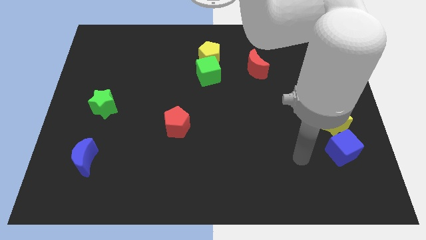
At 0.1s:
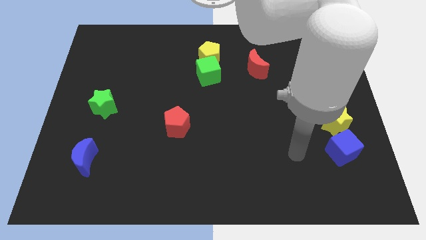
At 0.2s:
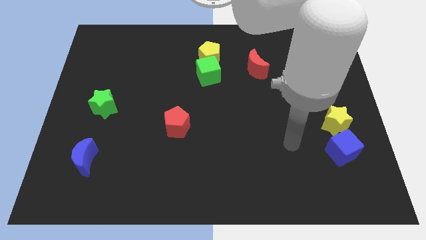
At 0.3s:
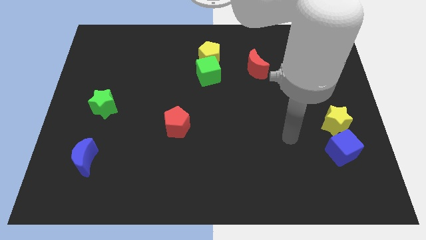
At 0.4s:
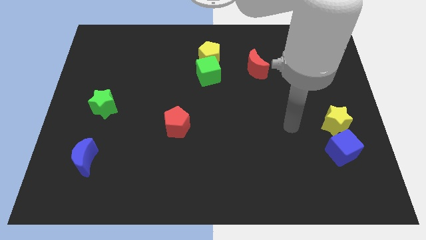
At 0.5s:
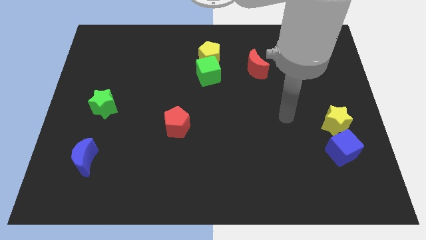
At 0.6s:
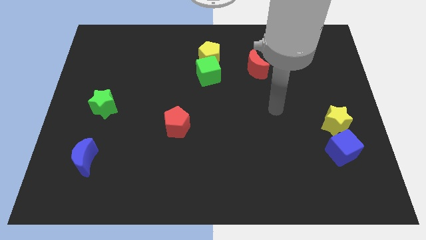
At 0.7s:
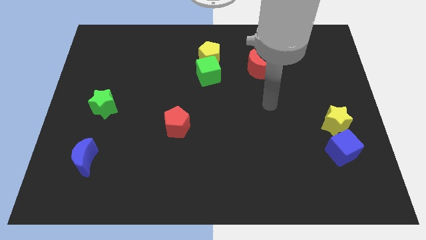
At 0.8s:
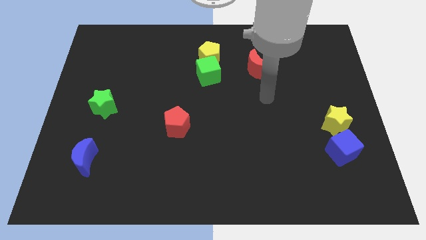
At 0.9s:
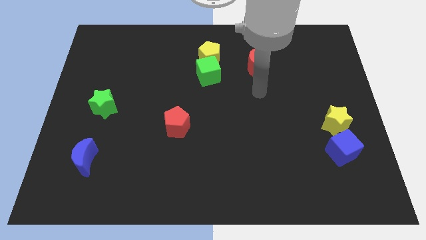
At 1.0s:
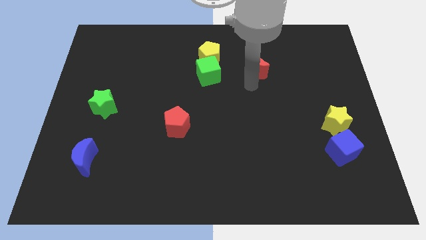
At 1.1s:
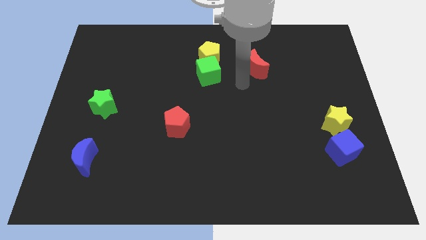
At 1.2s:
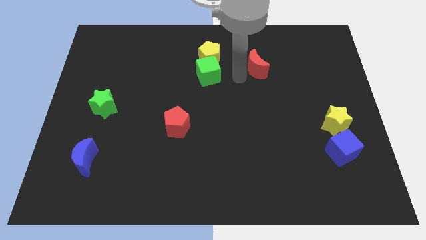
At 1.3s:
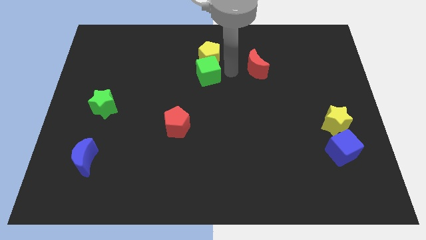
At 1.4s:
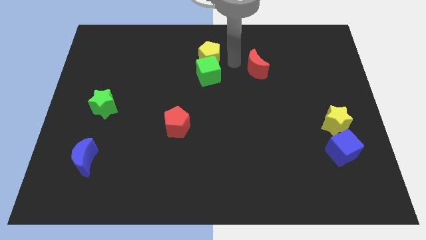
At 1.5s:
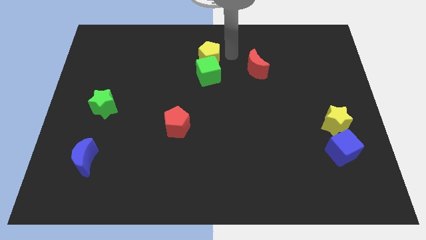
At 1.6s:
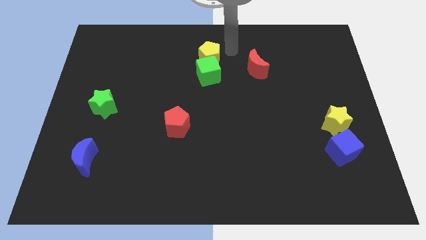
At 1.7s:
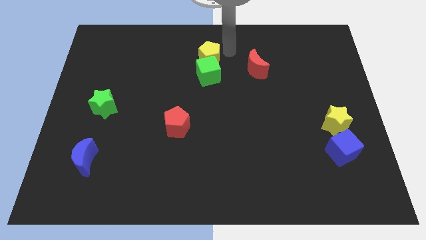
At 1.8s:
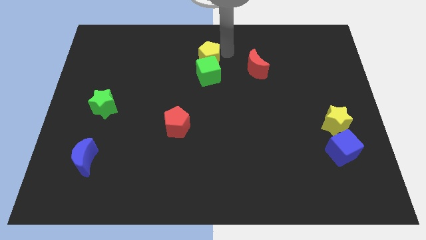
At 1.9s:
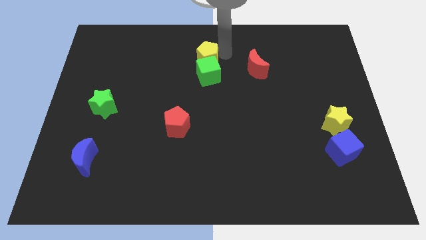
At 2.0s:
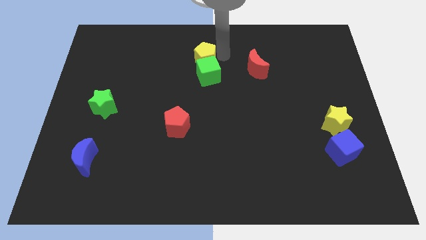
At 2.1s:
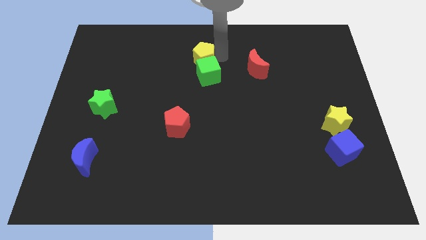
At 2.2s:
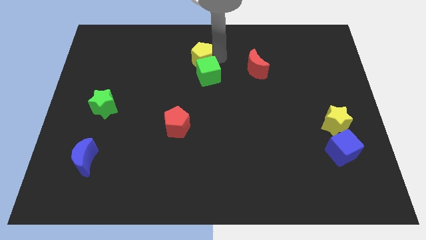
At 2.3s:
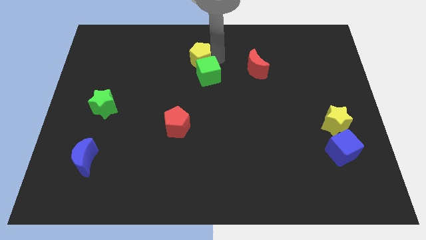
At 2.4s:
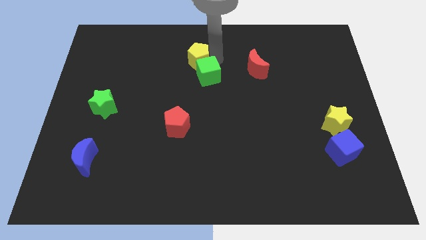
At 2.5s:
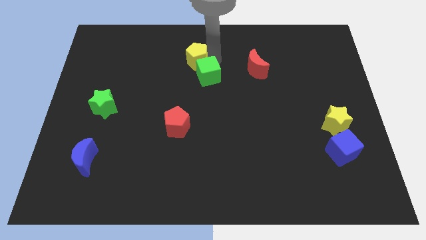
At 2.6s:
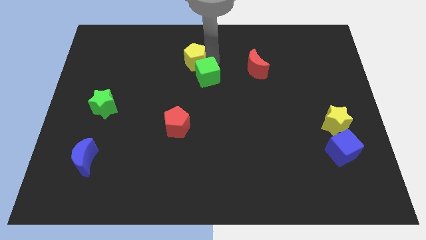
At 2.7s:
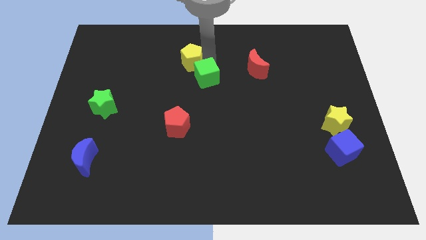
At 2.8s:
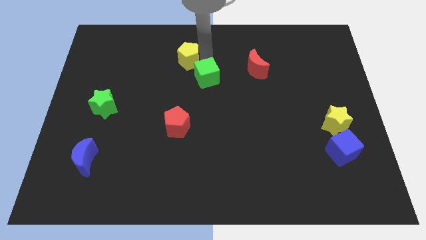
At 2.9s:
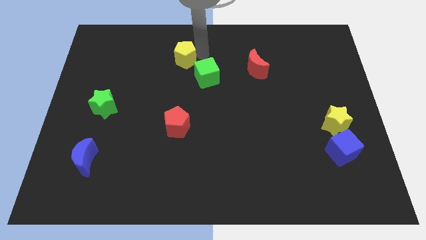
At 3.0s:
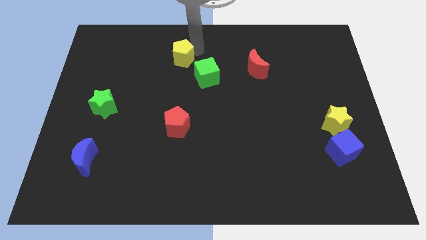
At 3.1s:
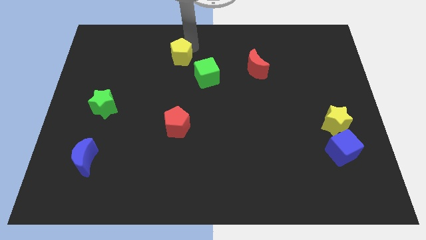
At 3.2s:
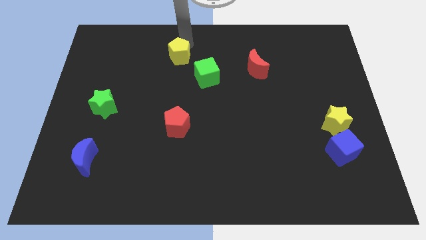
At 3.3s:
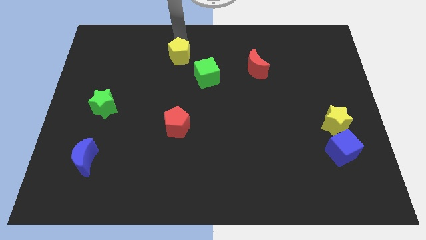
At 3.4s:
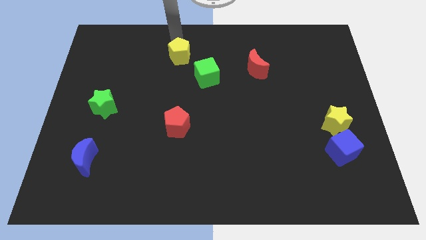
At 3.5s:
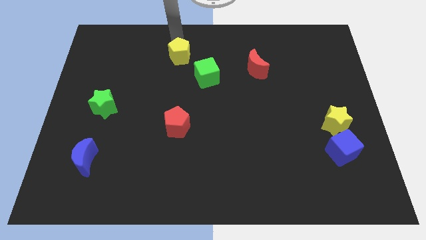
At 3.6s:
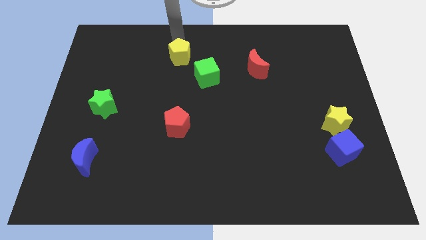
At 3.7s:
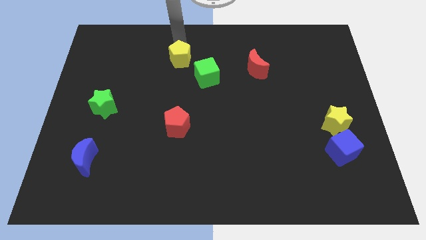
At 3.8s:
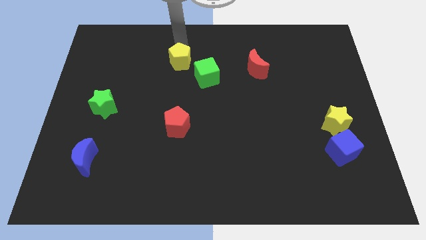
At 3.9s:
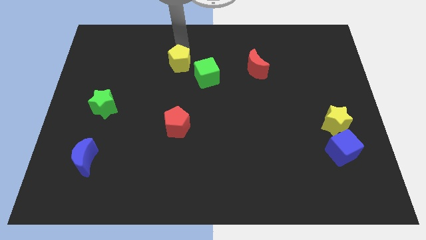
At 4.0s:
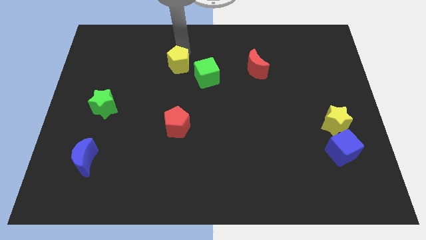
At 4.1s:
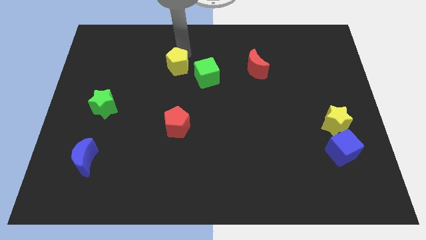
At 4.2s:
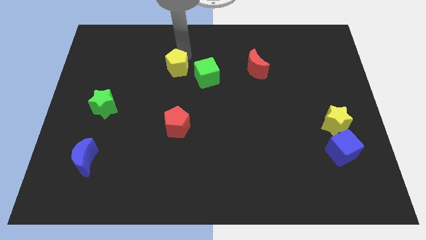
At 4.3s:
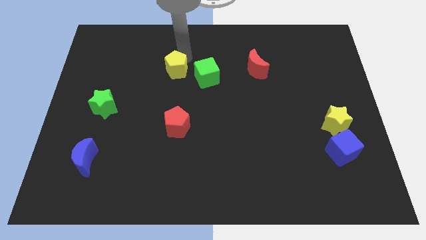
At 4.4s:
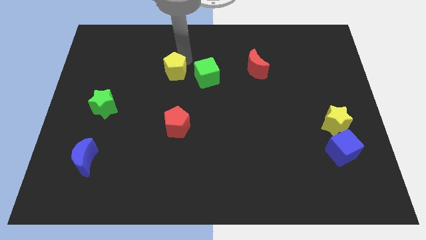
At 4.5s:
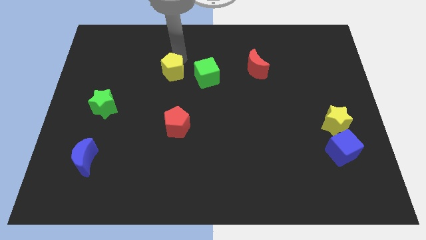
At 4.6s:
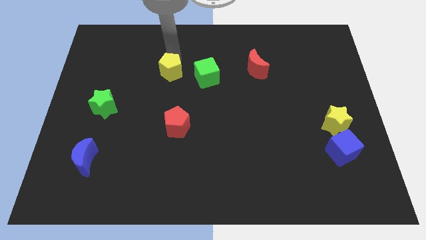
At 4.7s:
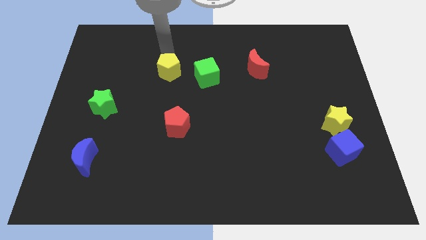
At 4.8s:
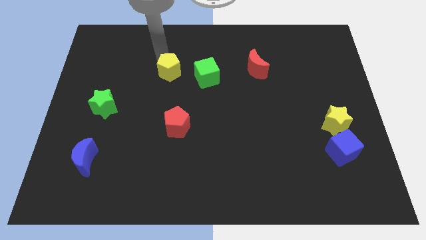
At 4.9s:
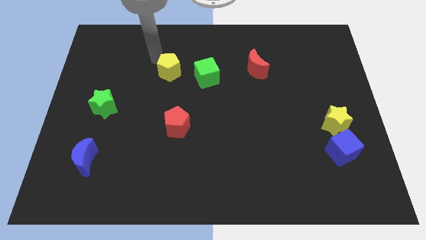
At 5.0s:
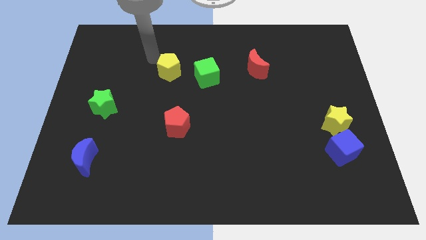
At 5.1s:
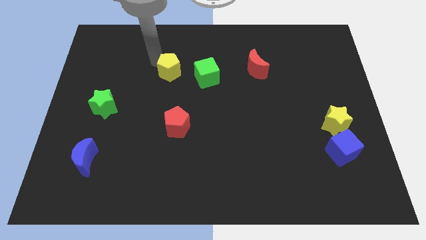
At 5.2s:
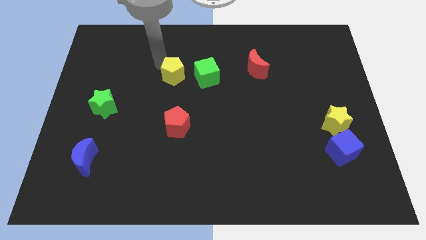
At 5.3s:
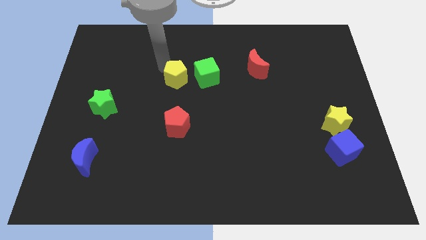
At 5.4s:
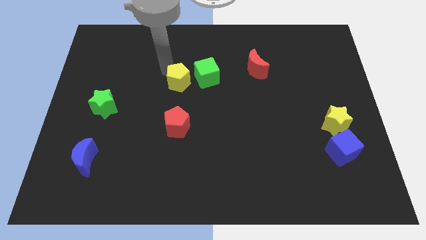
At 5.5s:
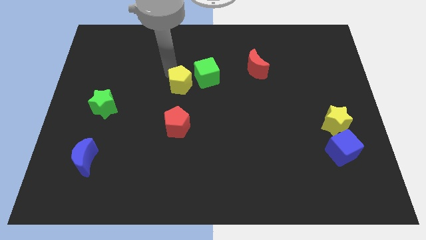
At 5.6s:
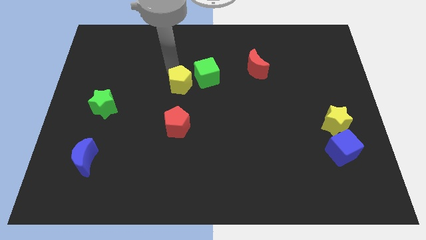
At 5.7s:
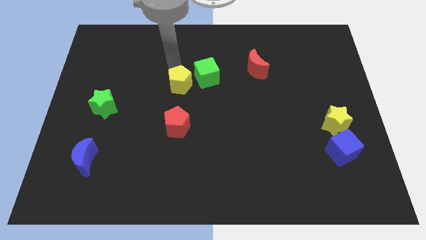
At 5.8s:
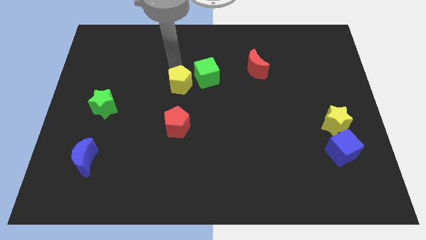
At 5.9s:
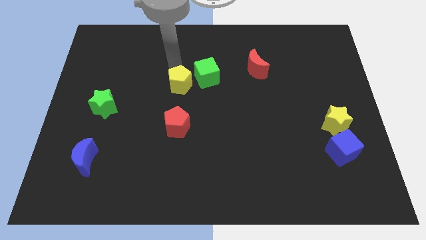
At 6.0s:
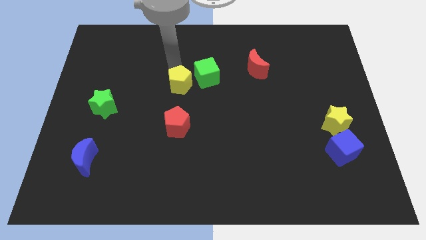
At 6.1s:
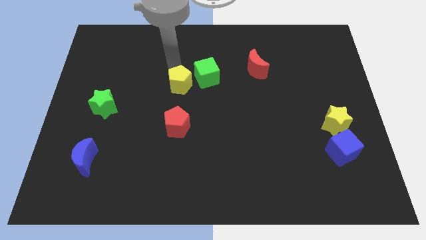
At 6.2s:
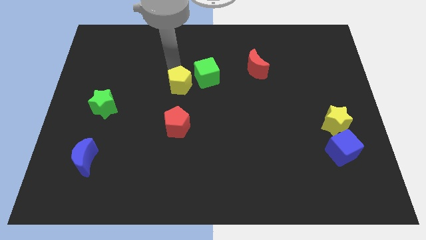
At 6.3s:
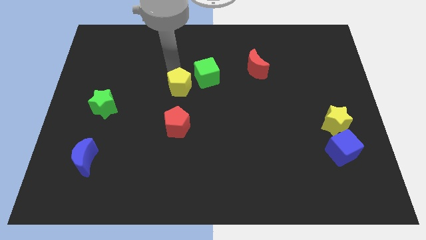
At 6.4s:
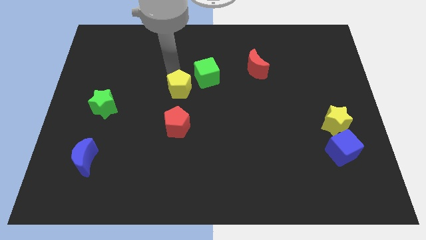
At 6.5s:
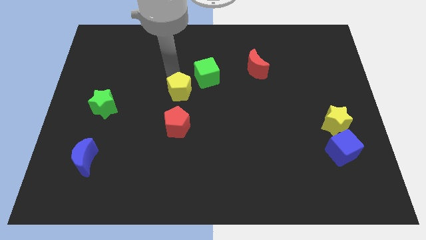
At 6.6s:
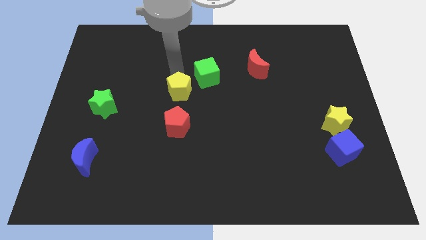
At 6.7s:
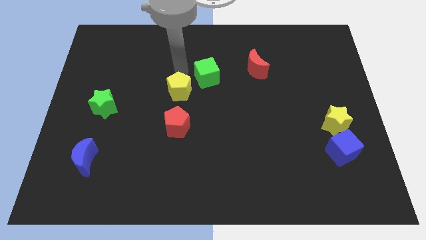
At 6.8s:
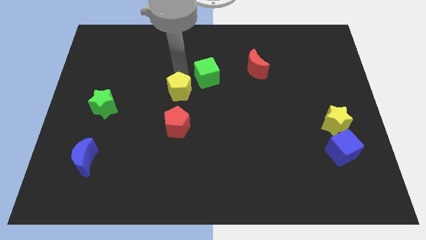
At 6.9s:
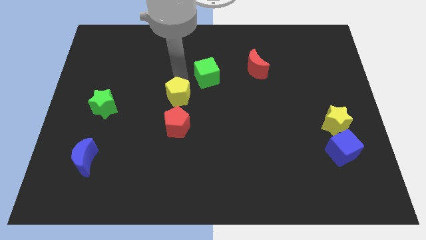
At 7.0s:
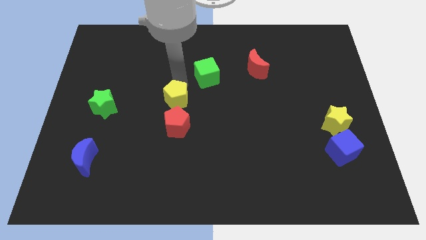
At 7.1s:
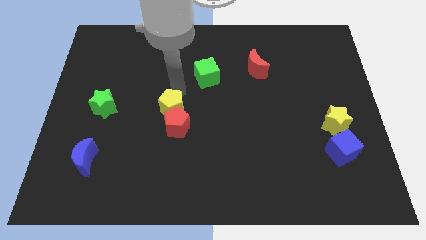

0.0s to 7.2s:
push the yellow pentagon towards the red pentagon
